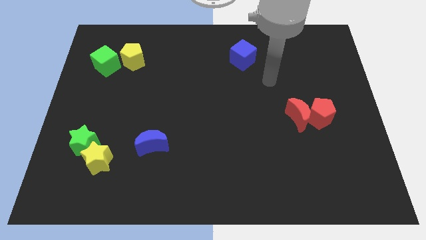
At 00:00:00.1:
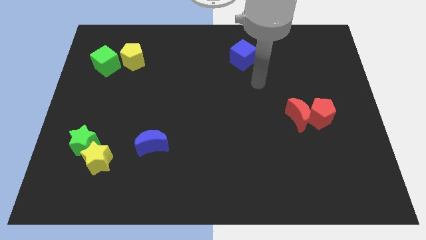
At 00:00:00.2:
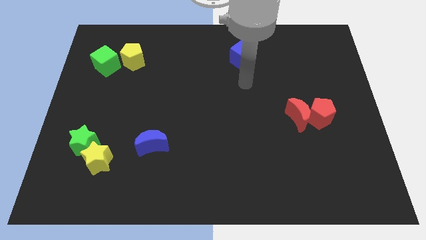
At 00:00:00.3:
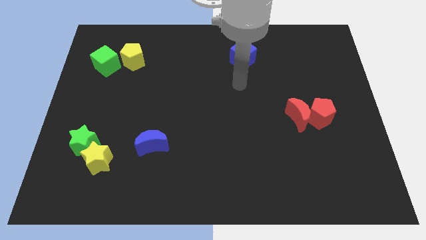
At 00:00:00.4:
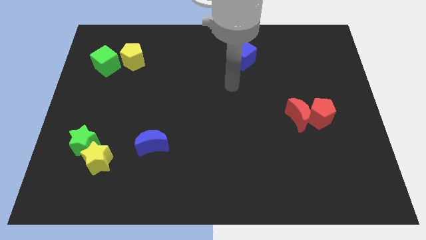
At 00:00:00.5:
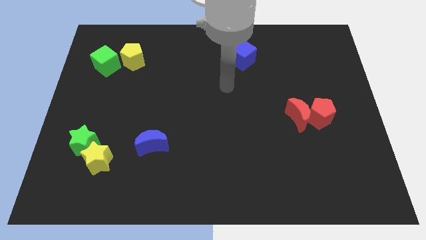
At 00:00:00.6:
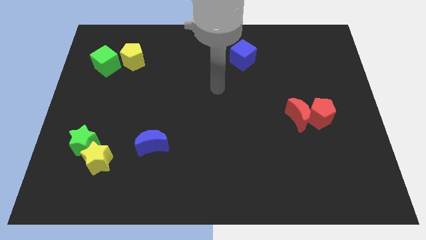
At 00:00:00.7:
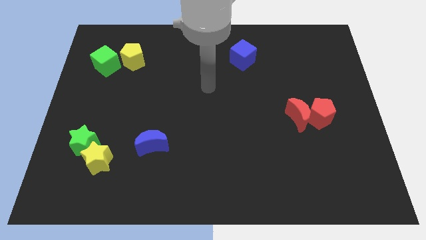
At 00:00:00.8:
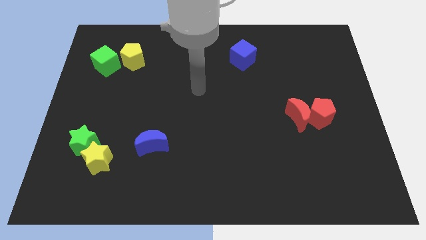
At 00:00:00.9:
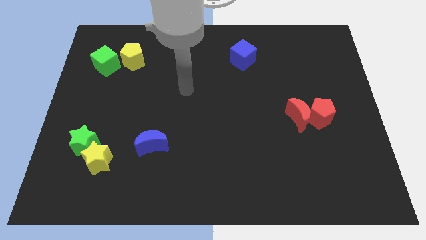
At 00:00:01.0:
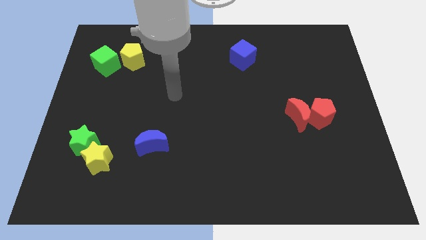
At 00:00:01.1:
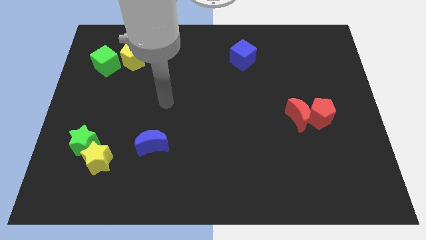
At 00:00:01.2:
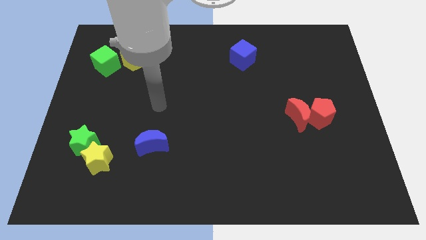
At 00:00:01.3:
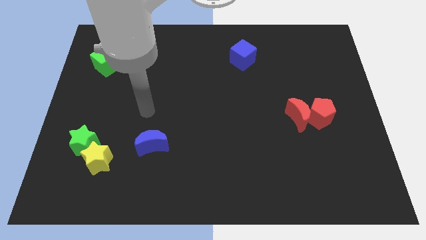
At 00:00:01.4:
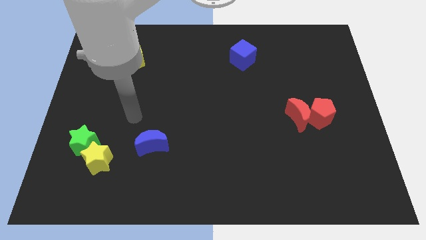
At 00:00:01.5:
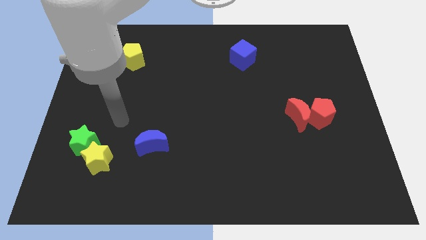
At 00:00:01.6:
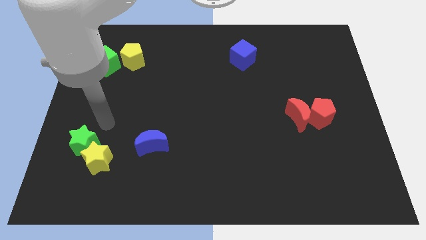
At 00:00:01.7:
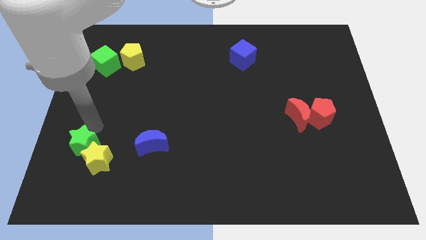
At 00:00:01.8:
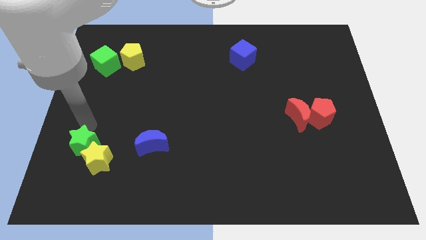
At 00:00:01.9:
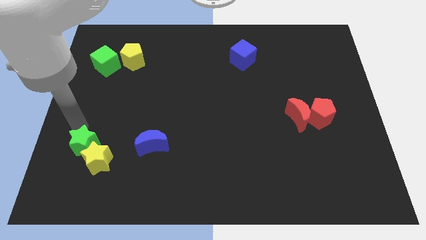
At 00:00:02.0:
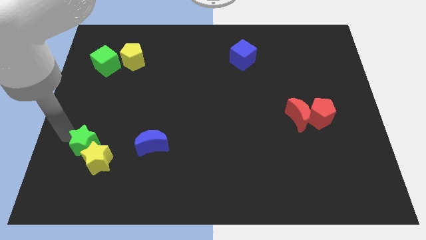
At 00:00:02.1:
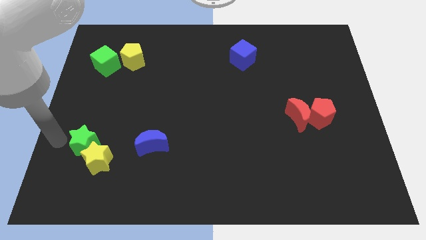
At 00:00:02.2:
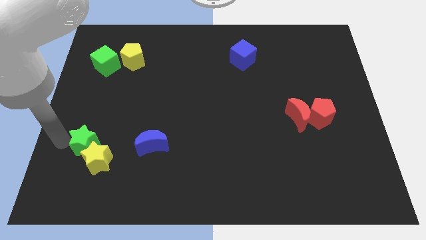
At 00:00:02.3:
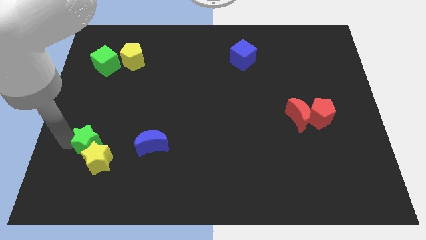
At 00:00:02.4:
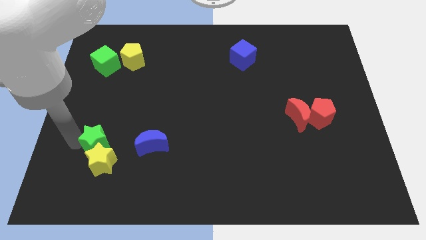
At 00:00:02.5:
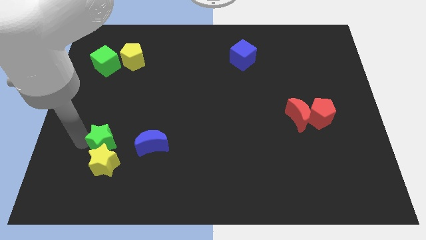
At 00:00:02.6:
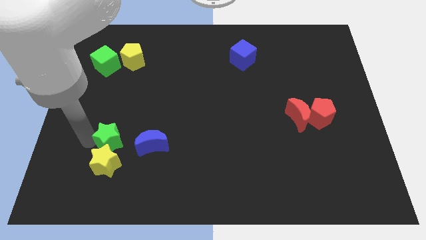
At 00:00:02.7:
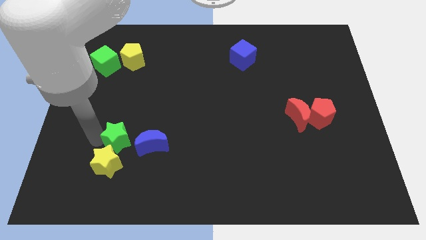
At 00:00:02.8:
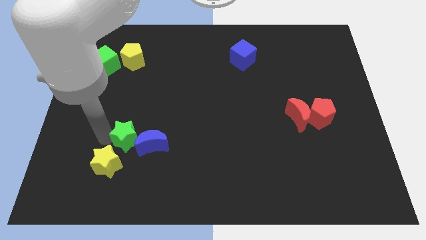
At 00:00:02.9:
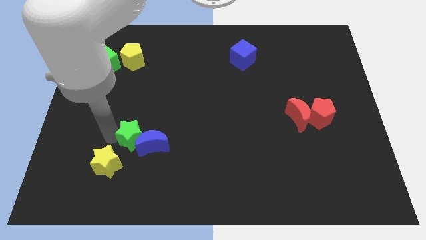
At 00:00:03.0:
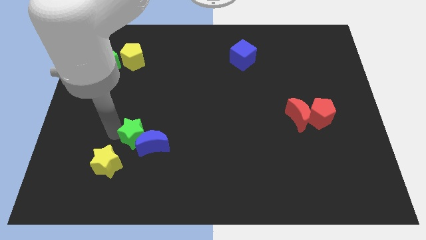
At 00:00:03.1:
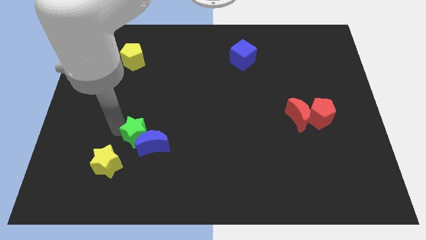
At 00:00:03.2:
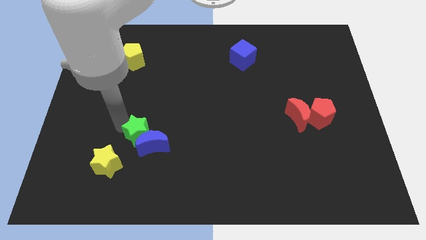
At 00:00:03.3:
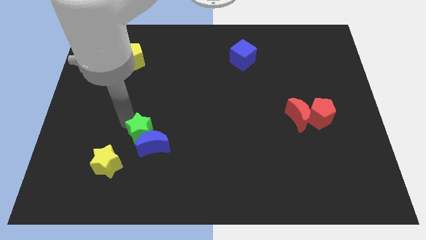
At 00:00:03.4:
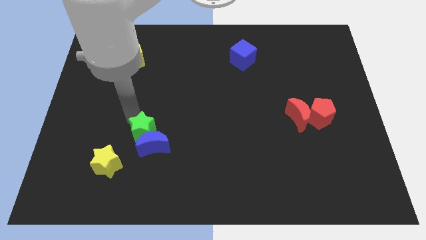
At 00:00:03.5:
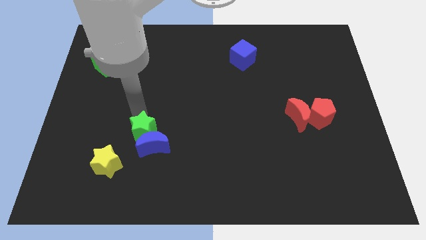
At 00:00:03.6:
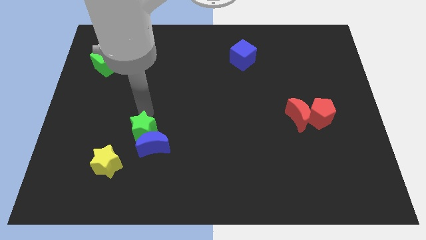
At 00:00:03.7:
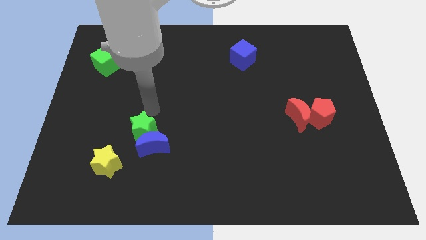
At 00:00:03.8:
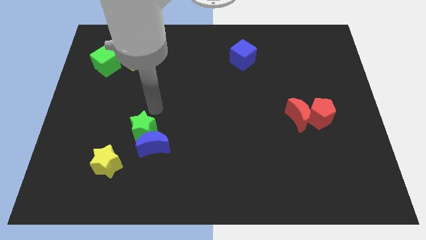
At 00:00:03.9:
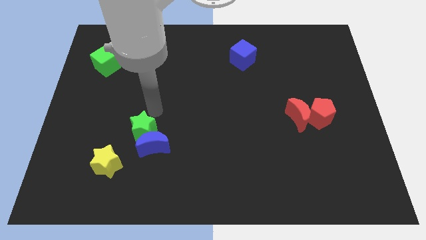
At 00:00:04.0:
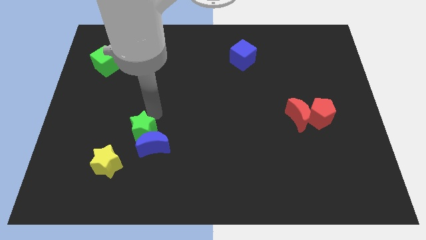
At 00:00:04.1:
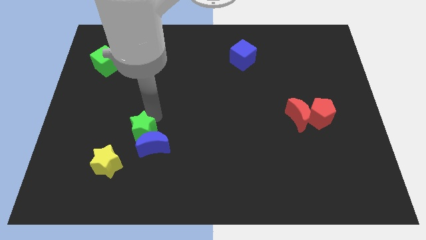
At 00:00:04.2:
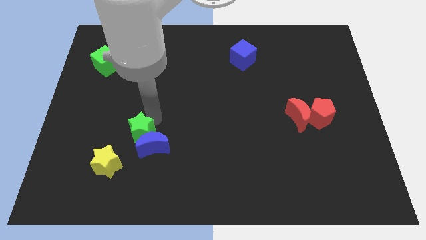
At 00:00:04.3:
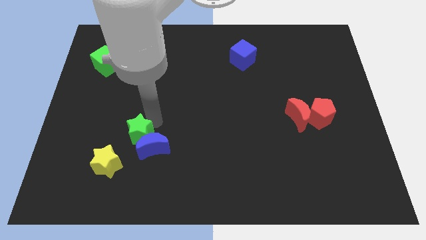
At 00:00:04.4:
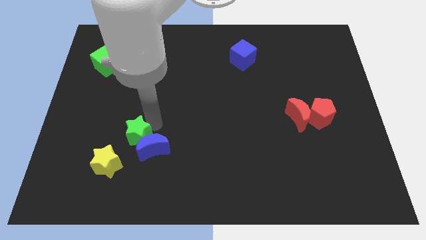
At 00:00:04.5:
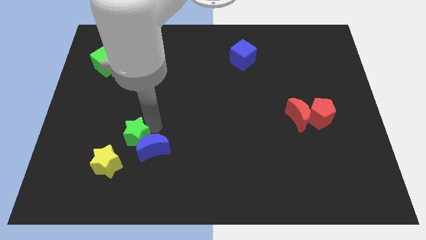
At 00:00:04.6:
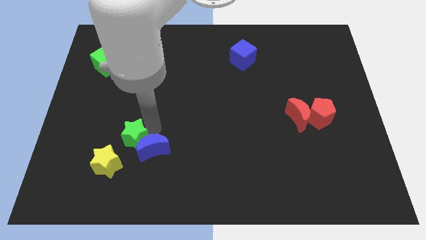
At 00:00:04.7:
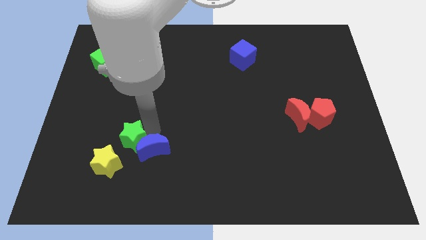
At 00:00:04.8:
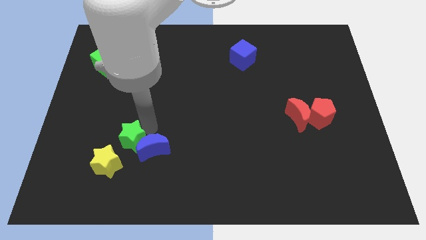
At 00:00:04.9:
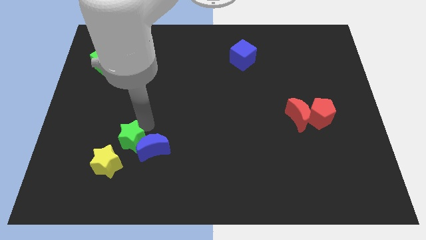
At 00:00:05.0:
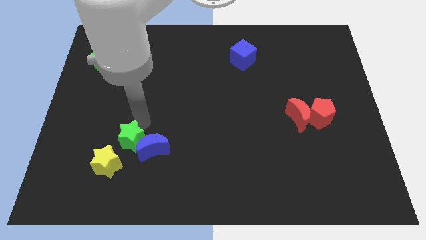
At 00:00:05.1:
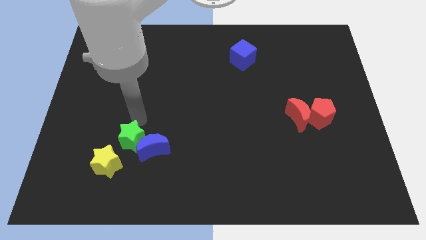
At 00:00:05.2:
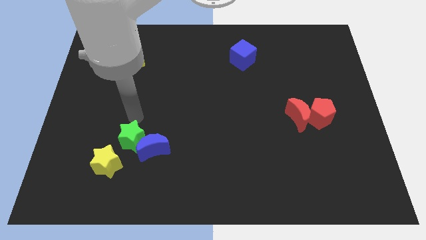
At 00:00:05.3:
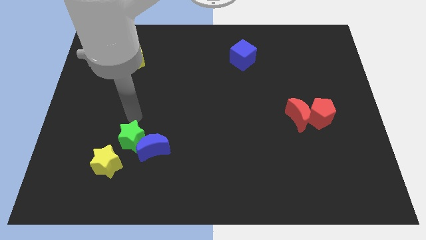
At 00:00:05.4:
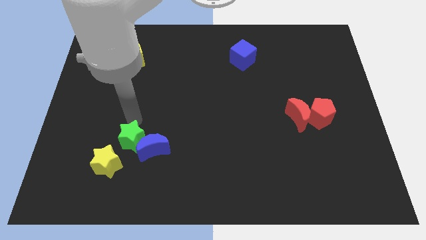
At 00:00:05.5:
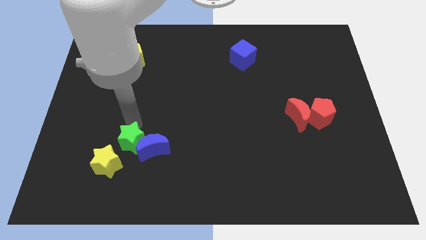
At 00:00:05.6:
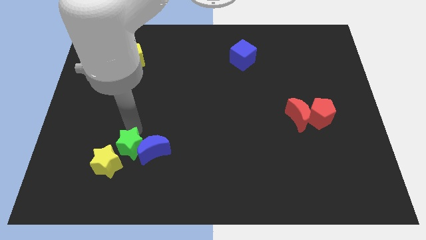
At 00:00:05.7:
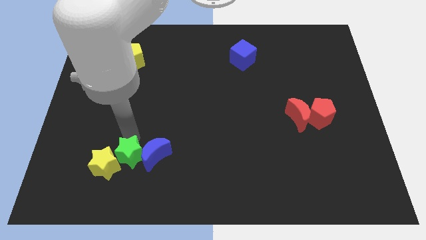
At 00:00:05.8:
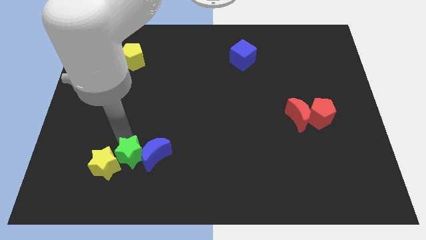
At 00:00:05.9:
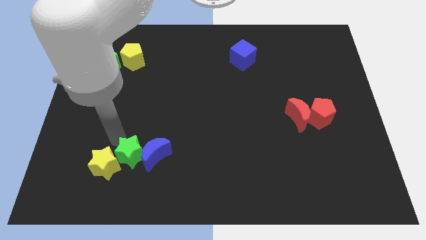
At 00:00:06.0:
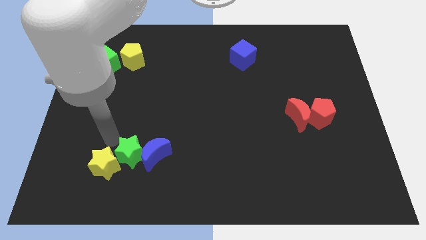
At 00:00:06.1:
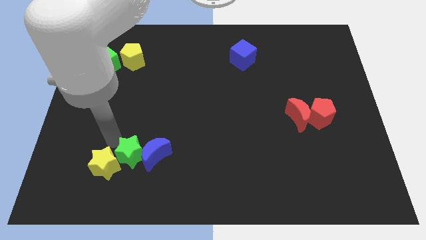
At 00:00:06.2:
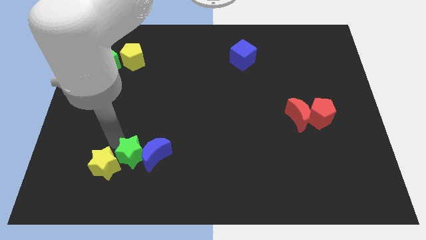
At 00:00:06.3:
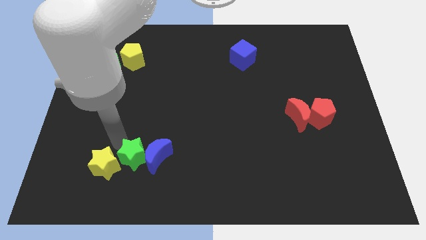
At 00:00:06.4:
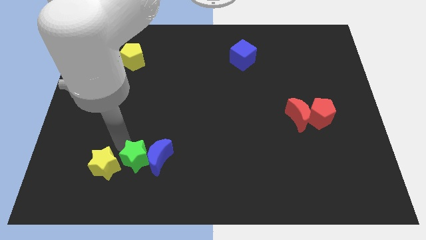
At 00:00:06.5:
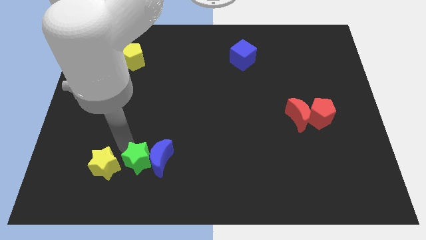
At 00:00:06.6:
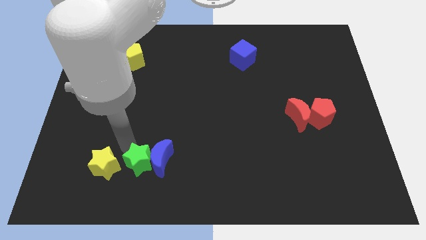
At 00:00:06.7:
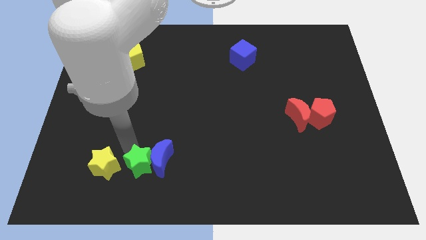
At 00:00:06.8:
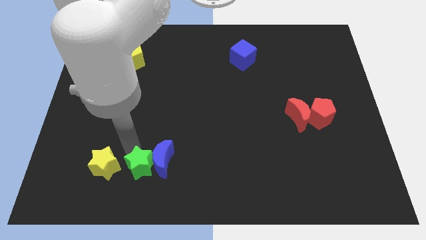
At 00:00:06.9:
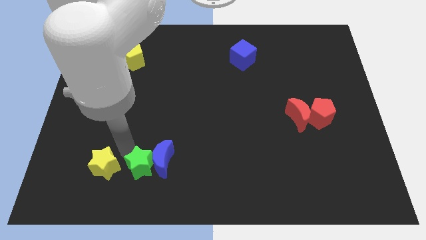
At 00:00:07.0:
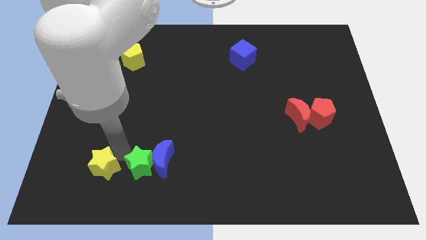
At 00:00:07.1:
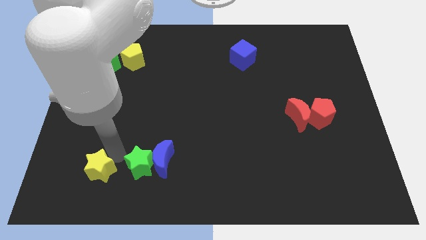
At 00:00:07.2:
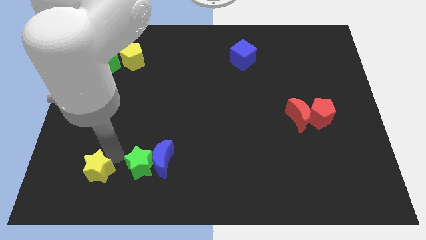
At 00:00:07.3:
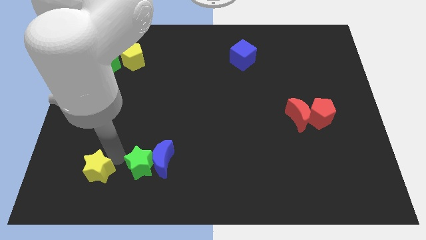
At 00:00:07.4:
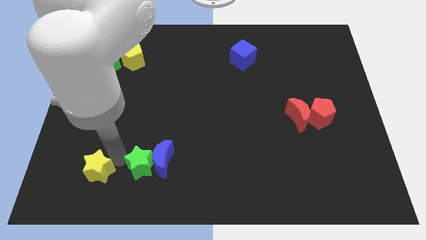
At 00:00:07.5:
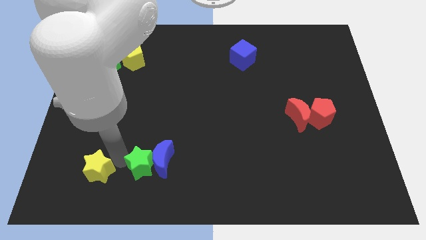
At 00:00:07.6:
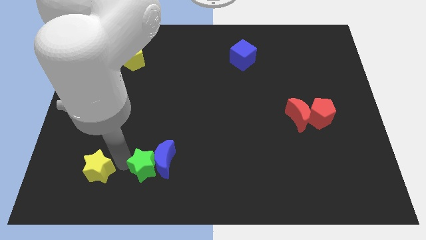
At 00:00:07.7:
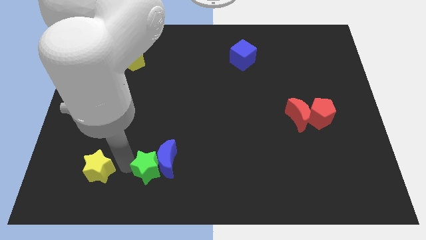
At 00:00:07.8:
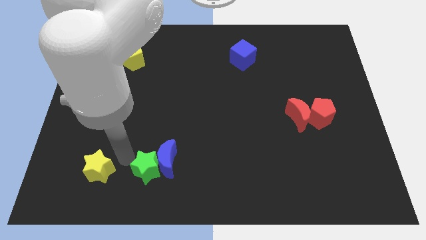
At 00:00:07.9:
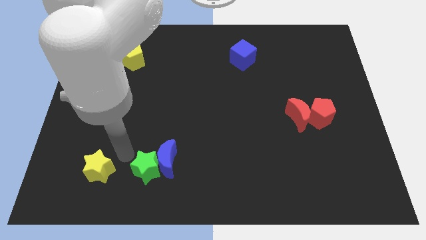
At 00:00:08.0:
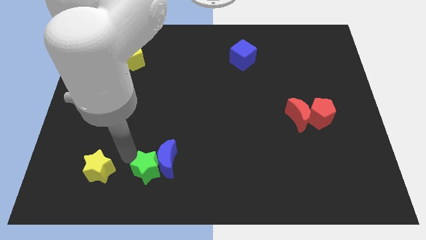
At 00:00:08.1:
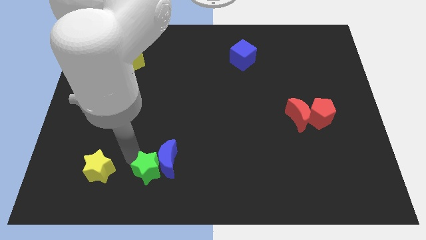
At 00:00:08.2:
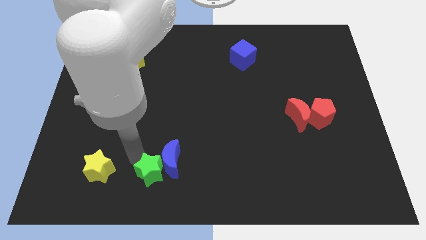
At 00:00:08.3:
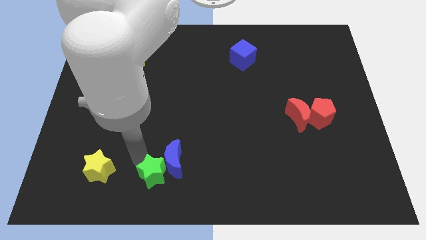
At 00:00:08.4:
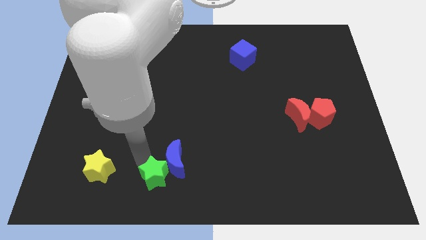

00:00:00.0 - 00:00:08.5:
move the green star to the bottom side
